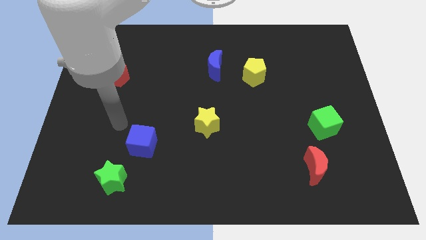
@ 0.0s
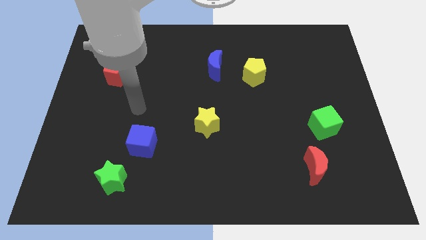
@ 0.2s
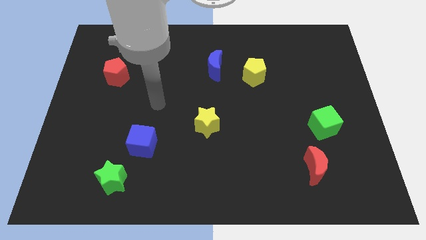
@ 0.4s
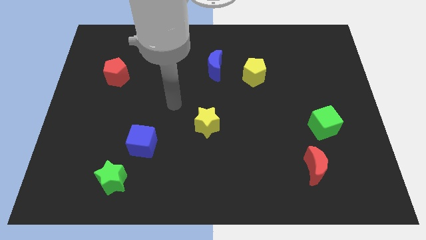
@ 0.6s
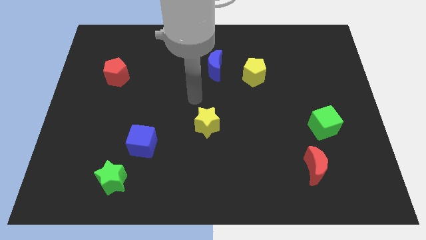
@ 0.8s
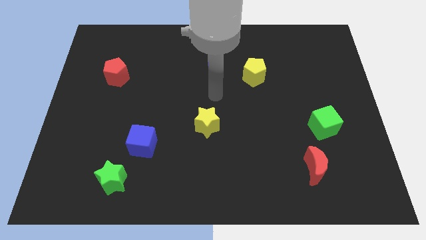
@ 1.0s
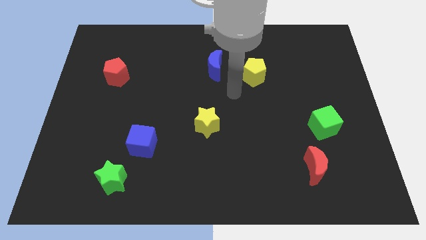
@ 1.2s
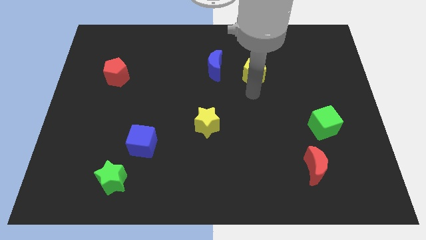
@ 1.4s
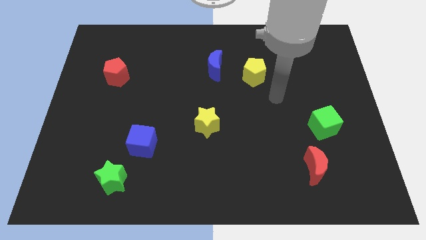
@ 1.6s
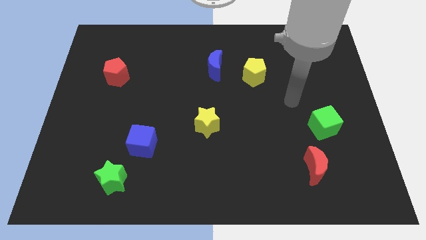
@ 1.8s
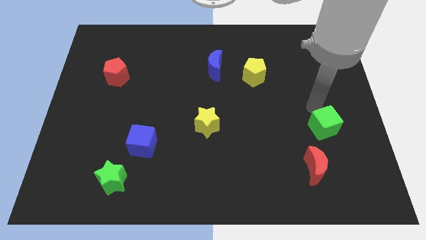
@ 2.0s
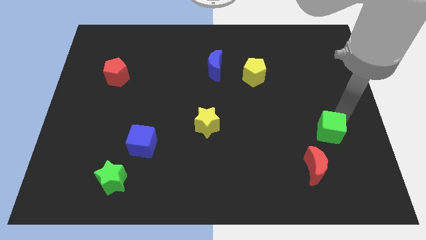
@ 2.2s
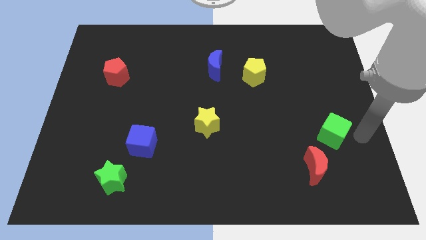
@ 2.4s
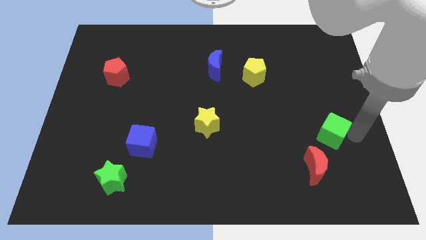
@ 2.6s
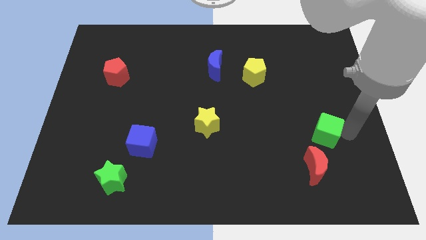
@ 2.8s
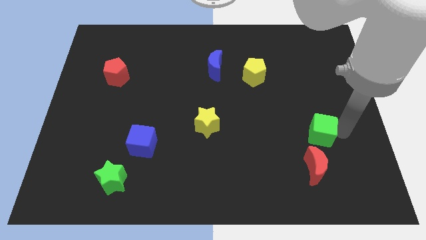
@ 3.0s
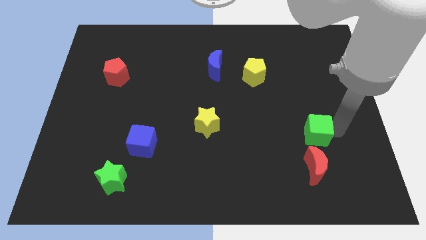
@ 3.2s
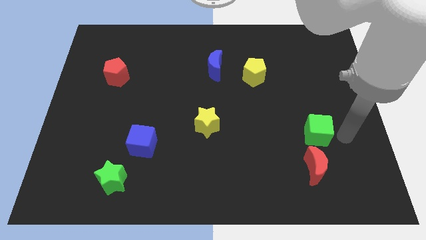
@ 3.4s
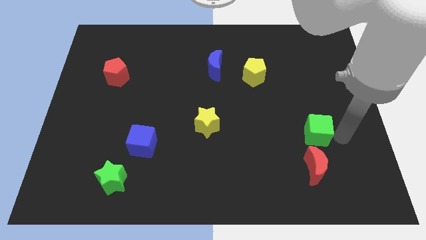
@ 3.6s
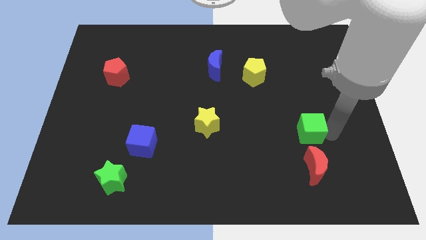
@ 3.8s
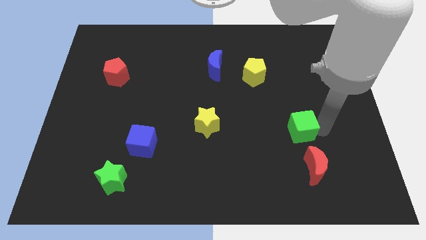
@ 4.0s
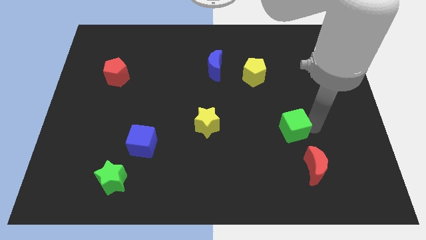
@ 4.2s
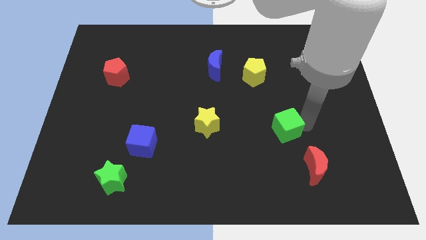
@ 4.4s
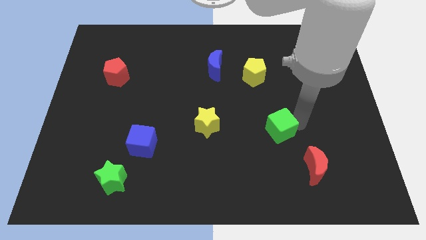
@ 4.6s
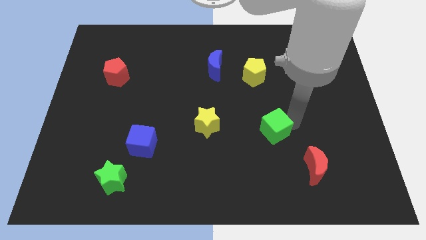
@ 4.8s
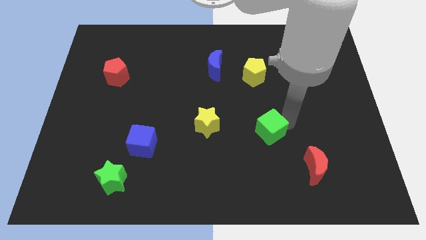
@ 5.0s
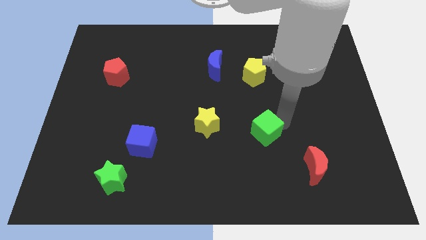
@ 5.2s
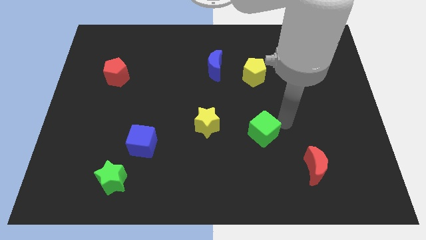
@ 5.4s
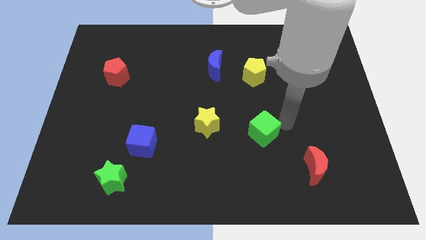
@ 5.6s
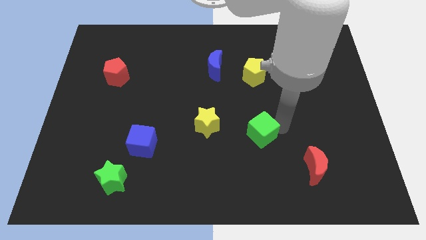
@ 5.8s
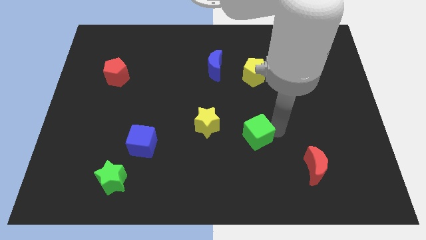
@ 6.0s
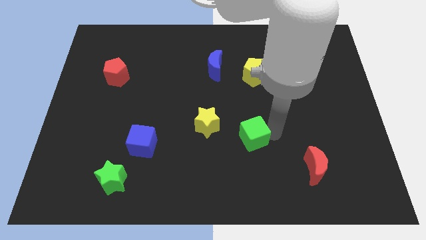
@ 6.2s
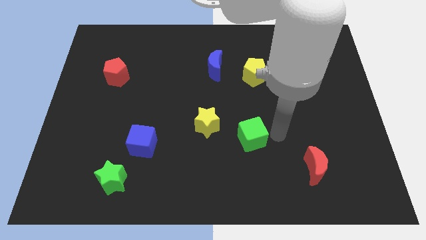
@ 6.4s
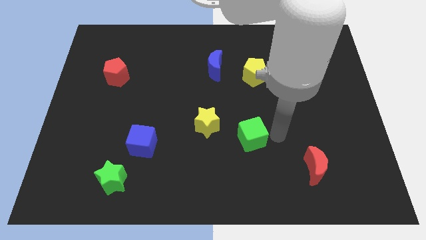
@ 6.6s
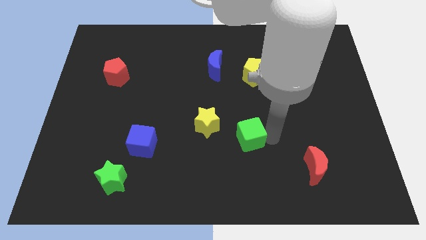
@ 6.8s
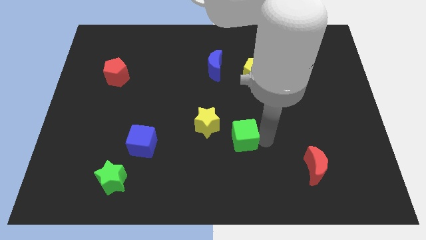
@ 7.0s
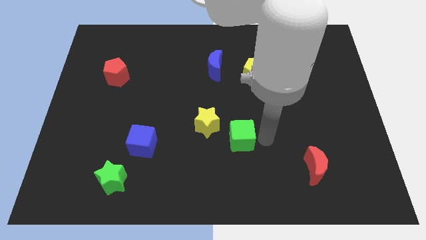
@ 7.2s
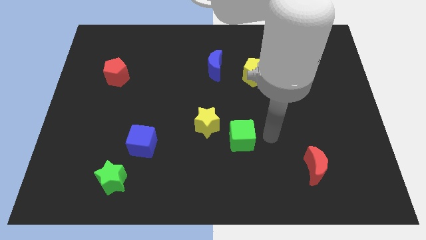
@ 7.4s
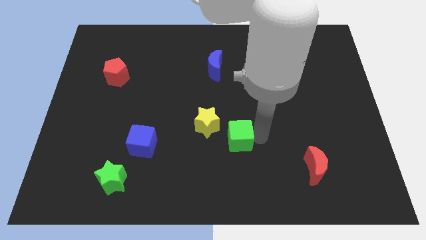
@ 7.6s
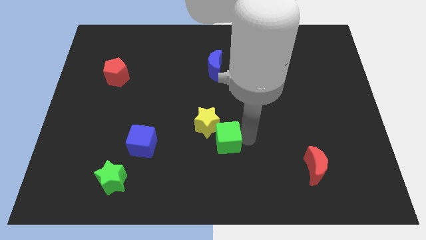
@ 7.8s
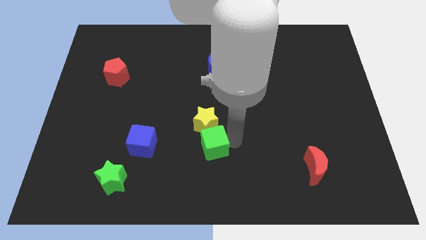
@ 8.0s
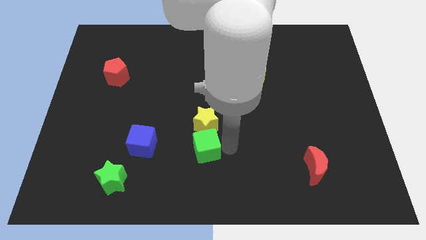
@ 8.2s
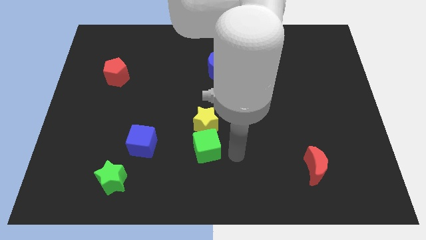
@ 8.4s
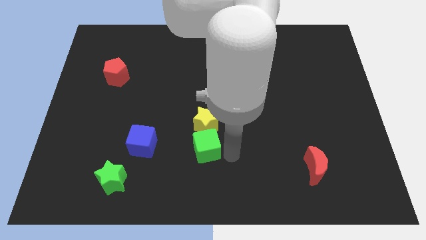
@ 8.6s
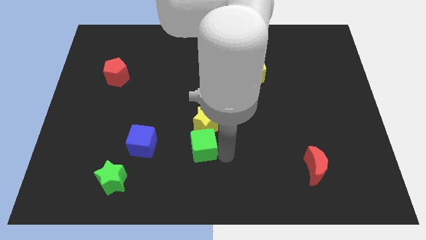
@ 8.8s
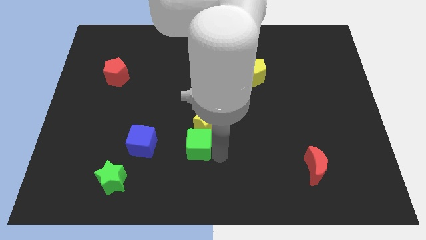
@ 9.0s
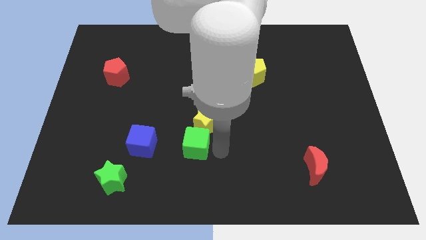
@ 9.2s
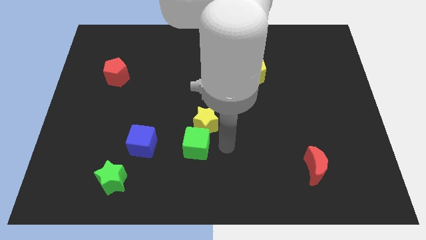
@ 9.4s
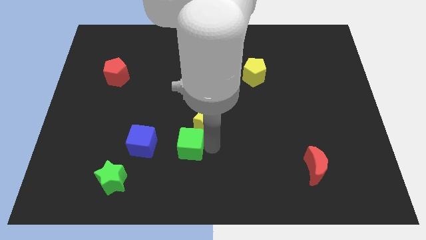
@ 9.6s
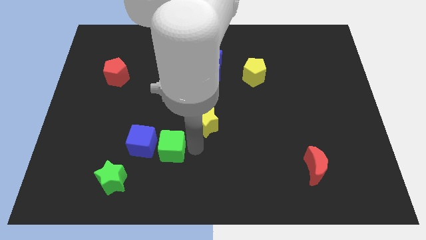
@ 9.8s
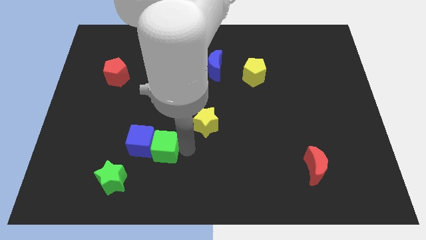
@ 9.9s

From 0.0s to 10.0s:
put the green cube to the blue cube

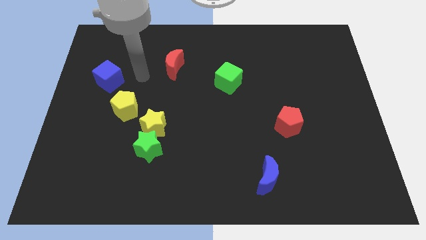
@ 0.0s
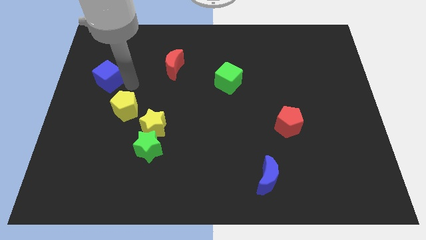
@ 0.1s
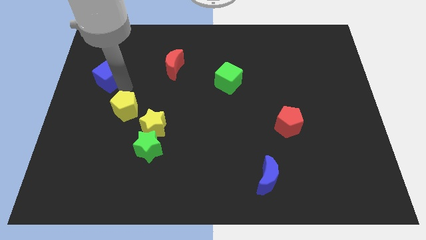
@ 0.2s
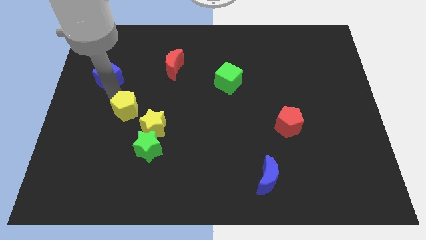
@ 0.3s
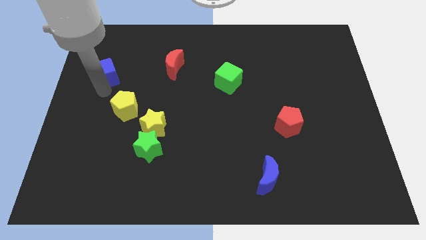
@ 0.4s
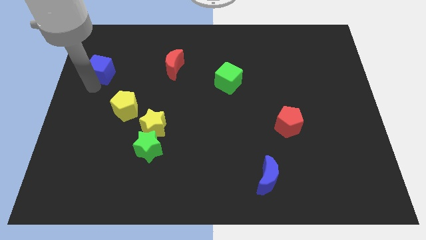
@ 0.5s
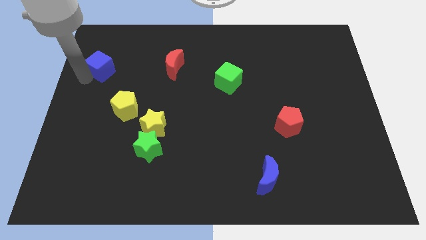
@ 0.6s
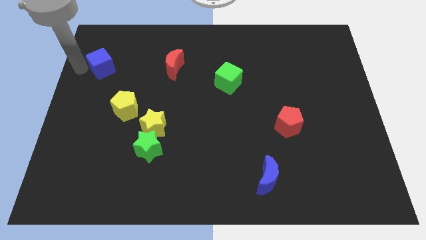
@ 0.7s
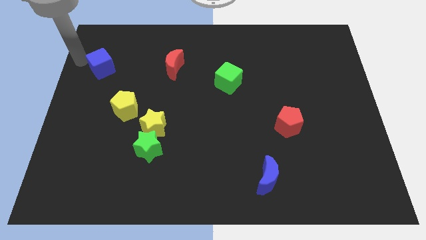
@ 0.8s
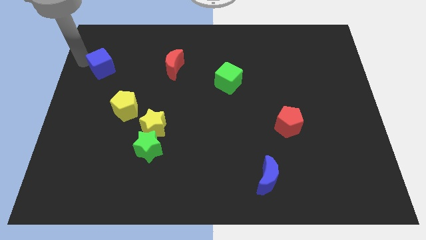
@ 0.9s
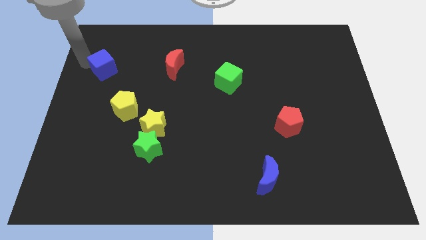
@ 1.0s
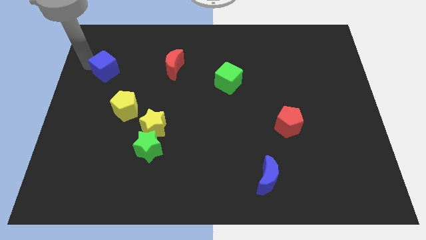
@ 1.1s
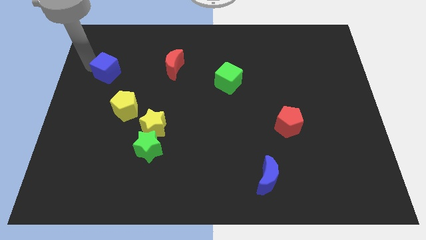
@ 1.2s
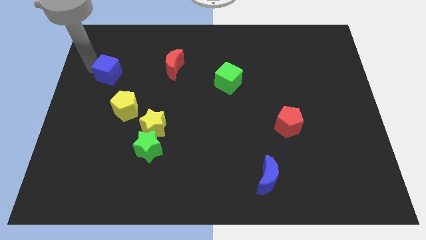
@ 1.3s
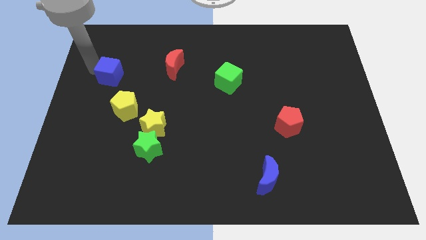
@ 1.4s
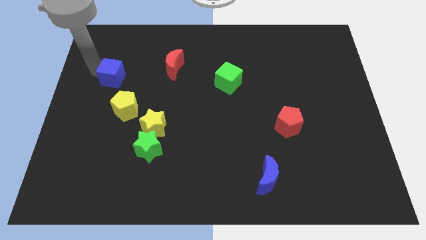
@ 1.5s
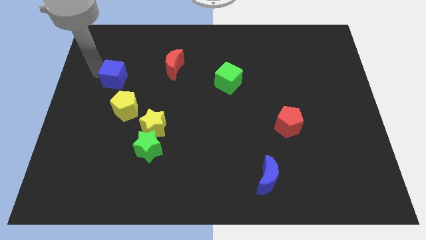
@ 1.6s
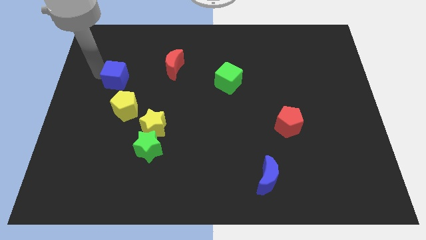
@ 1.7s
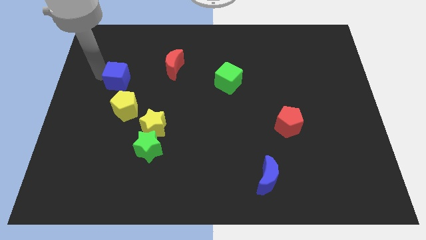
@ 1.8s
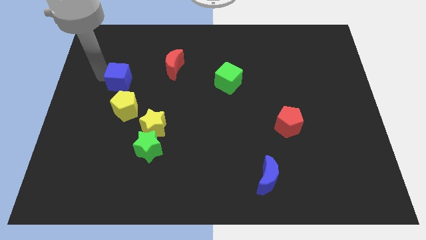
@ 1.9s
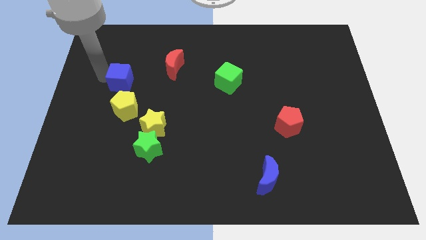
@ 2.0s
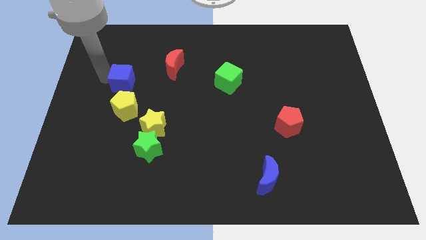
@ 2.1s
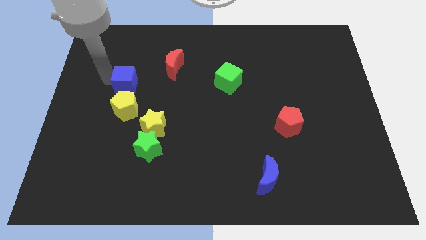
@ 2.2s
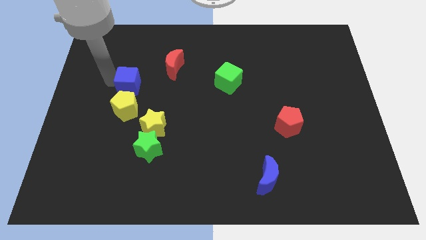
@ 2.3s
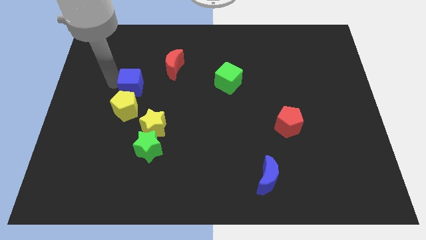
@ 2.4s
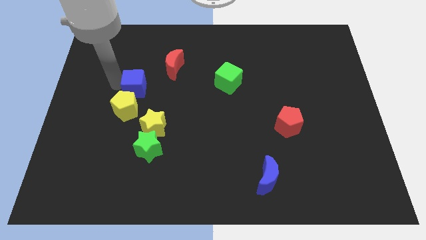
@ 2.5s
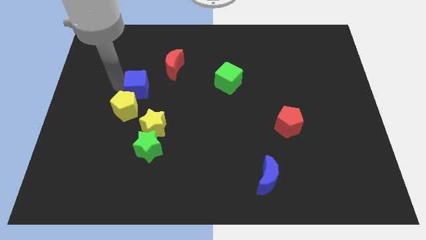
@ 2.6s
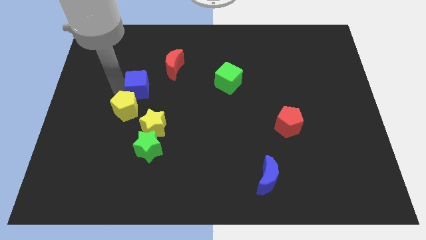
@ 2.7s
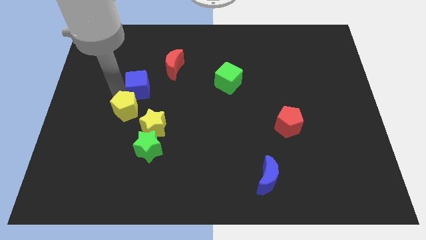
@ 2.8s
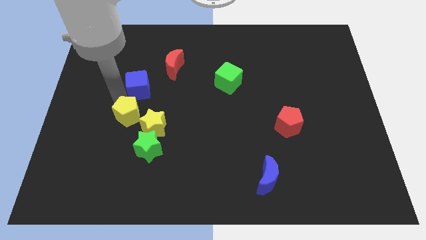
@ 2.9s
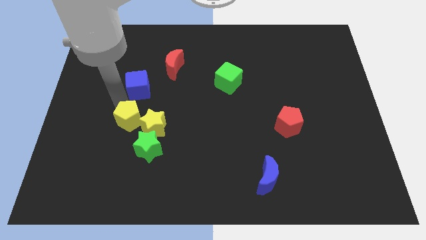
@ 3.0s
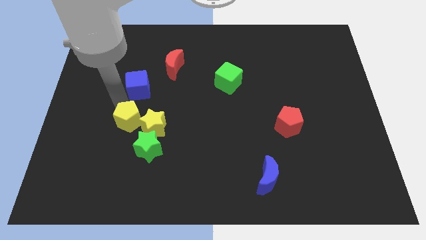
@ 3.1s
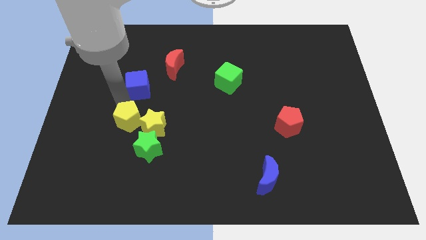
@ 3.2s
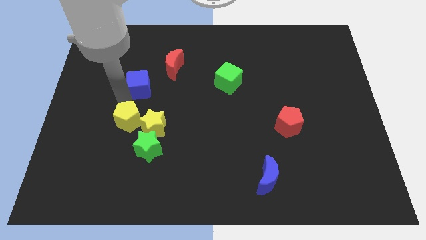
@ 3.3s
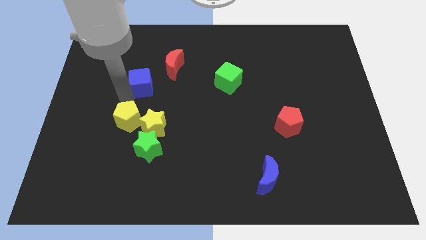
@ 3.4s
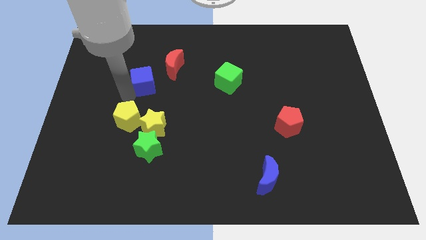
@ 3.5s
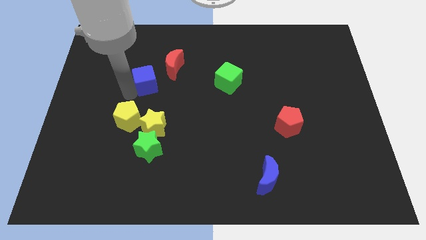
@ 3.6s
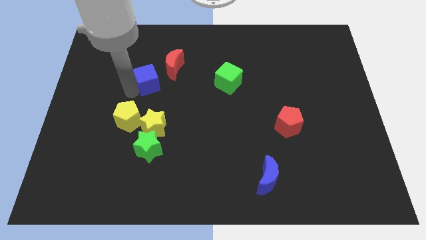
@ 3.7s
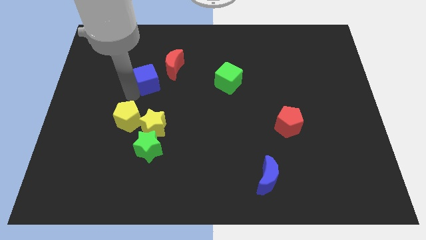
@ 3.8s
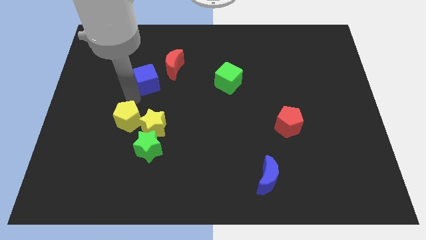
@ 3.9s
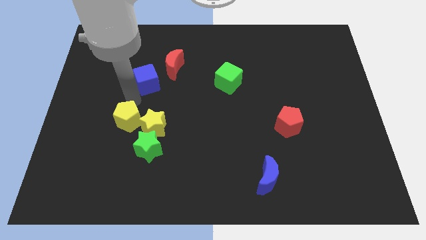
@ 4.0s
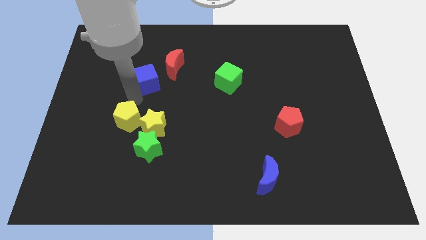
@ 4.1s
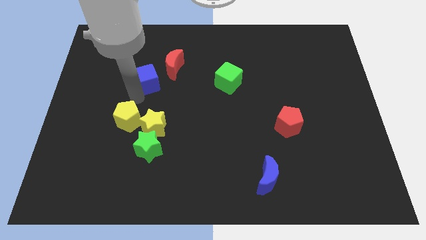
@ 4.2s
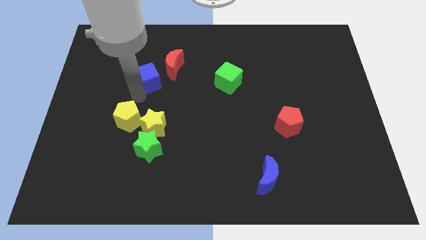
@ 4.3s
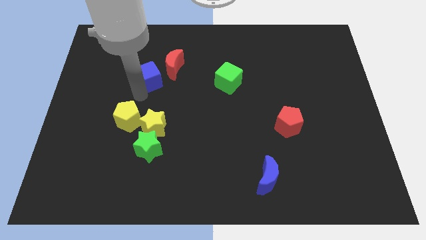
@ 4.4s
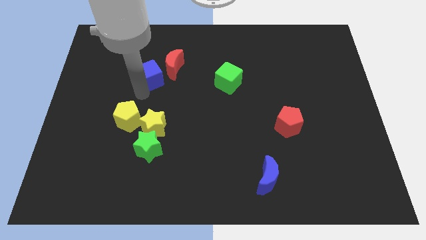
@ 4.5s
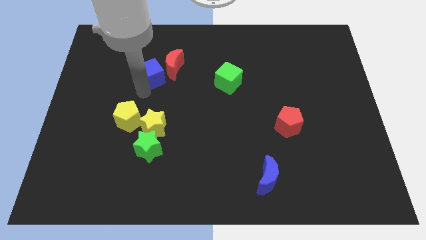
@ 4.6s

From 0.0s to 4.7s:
put the blue cube towards the red moon
